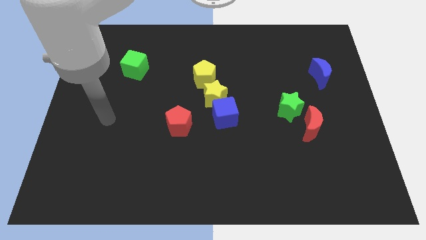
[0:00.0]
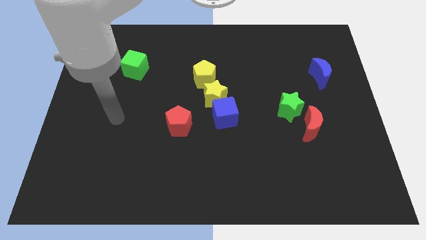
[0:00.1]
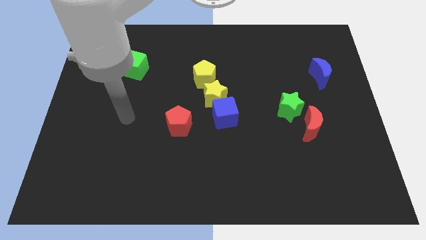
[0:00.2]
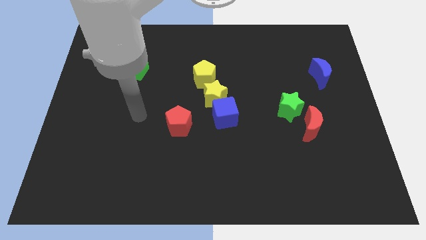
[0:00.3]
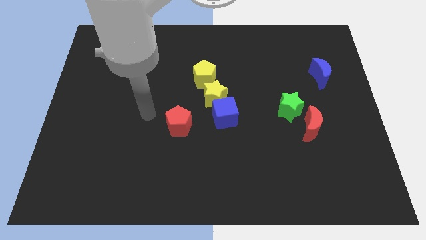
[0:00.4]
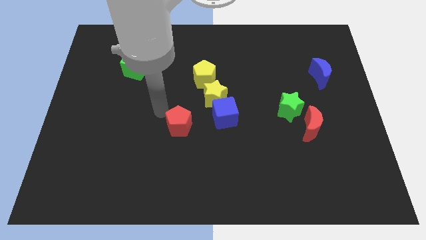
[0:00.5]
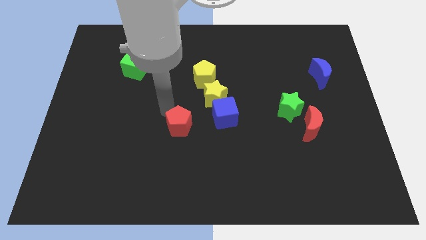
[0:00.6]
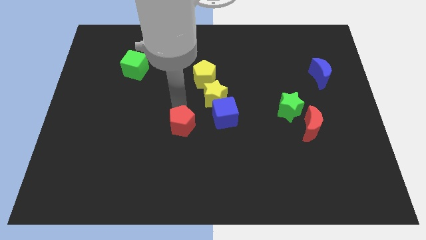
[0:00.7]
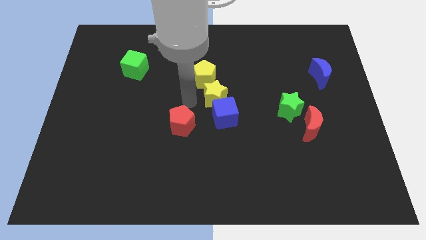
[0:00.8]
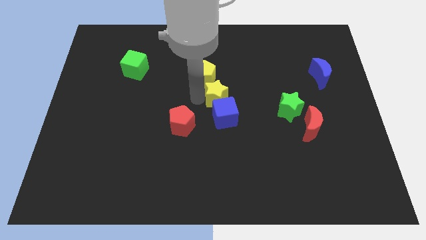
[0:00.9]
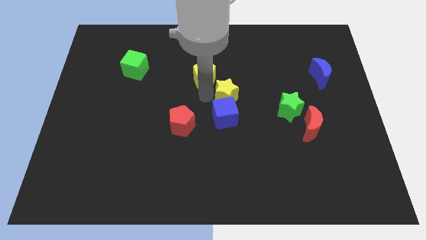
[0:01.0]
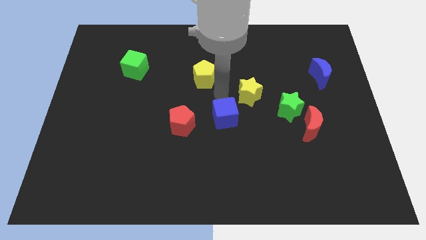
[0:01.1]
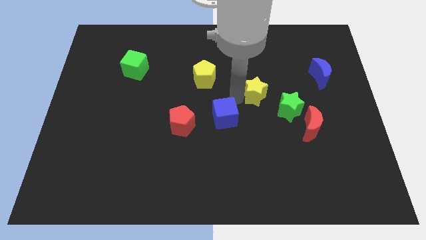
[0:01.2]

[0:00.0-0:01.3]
pull the blue cube apart from the yellow star

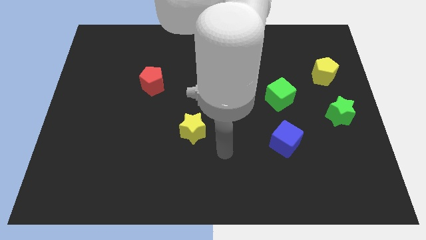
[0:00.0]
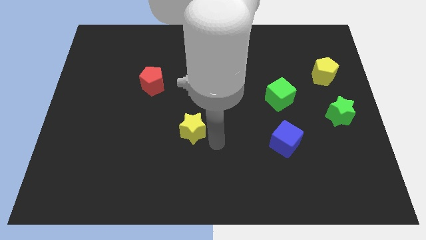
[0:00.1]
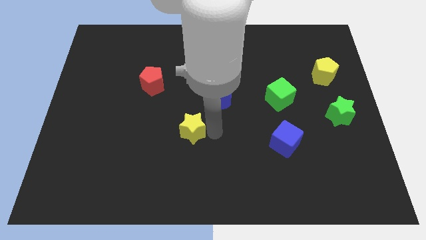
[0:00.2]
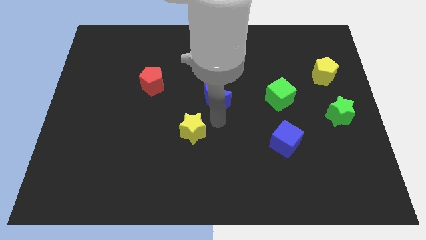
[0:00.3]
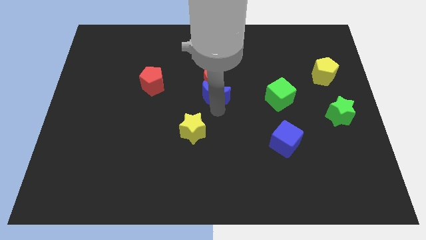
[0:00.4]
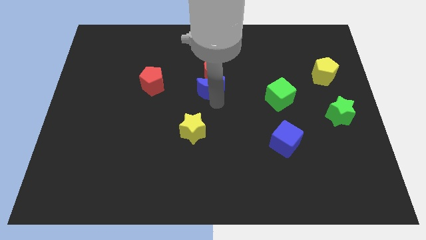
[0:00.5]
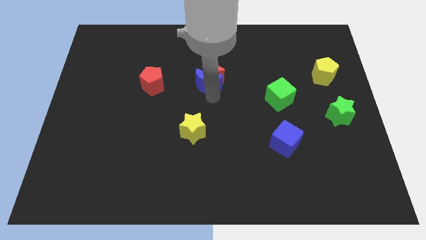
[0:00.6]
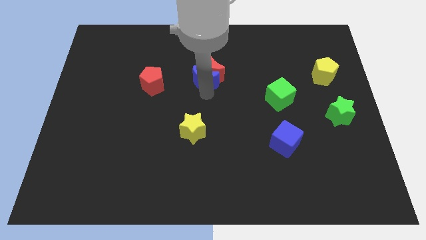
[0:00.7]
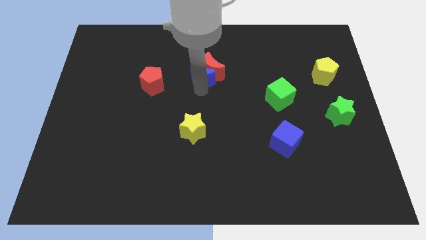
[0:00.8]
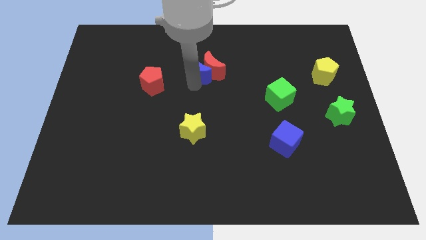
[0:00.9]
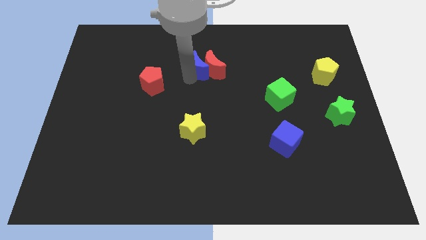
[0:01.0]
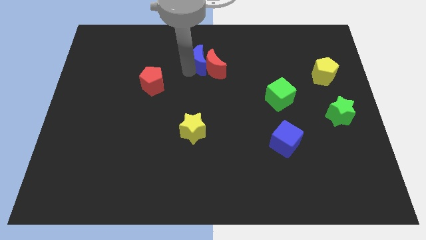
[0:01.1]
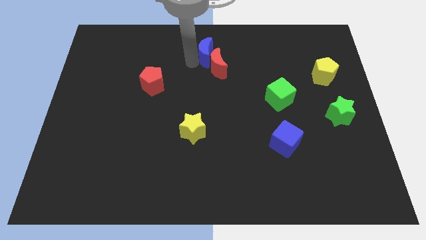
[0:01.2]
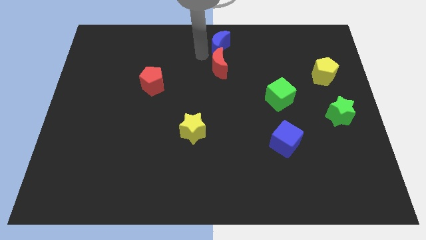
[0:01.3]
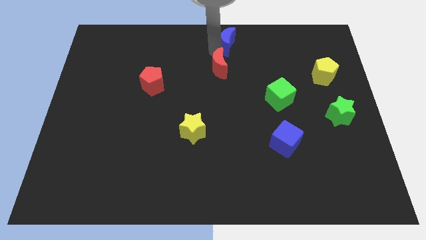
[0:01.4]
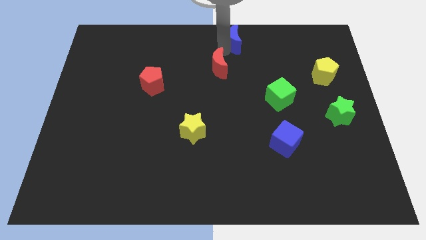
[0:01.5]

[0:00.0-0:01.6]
separate the red moon from the blue moon

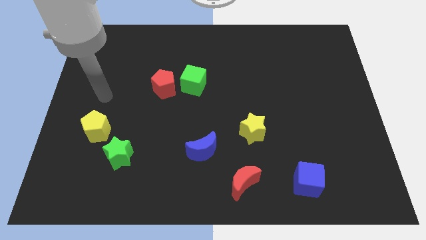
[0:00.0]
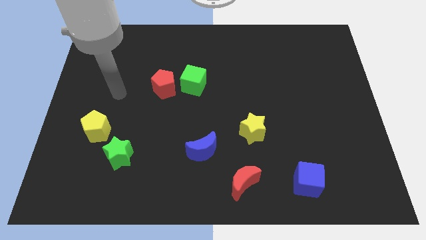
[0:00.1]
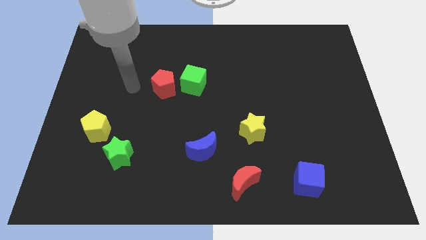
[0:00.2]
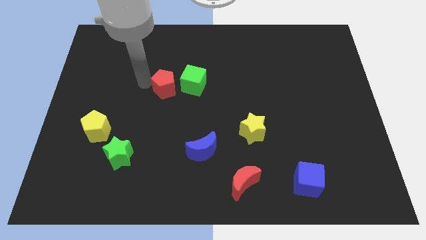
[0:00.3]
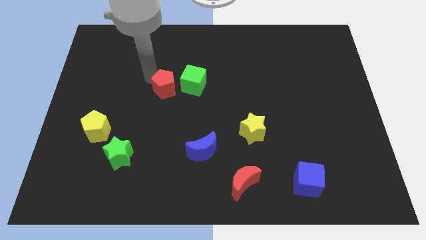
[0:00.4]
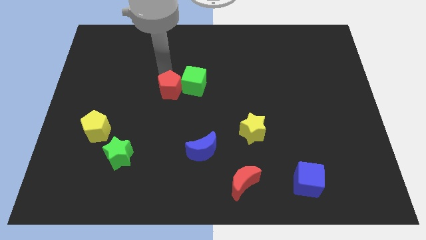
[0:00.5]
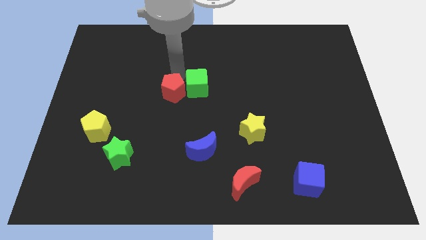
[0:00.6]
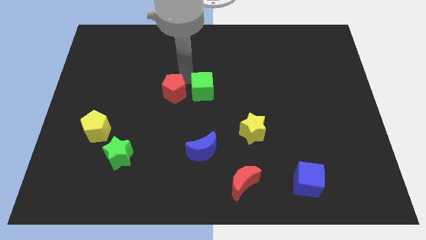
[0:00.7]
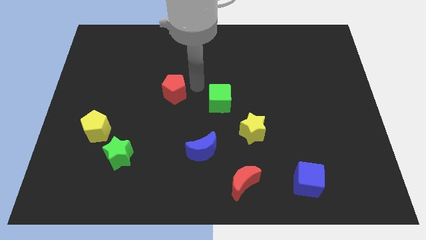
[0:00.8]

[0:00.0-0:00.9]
move the red pentagon away from the green cube

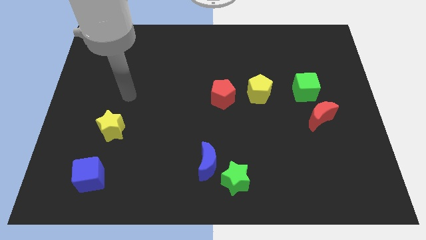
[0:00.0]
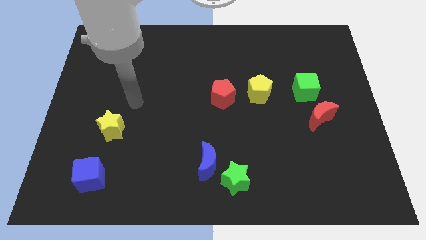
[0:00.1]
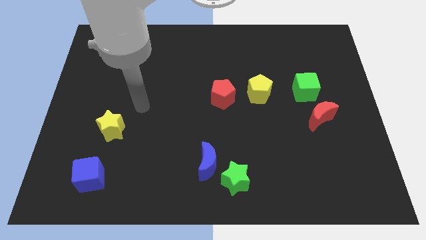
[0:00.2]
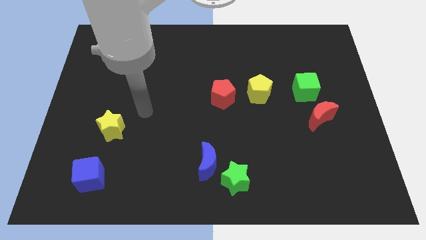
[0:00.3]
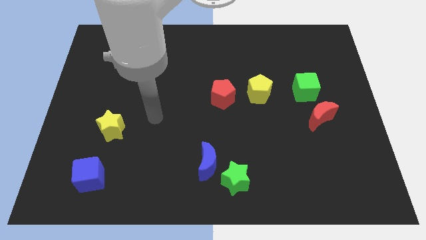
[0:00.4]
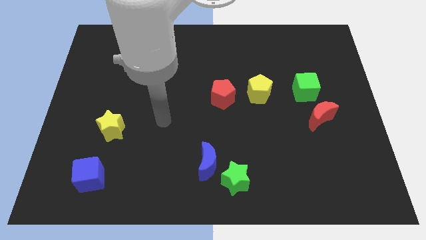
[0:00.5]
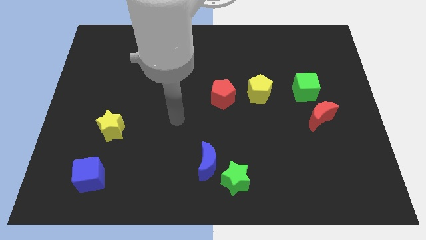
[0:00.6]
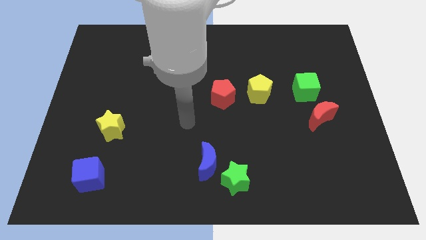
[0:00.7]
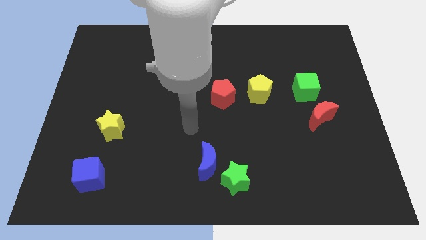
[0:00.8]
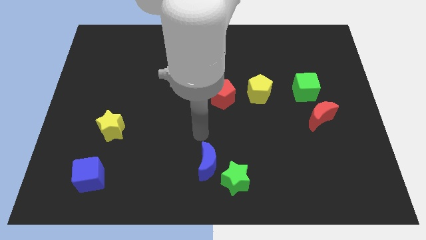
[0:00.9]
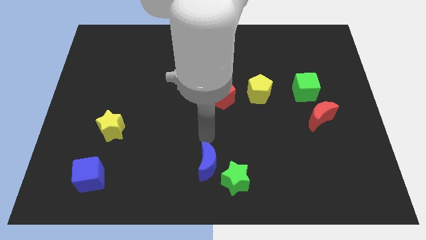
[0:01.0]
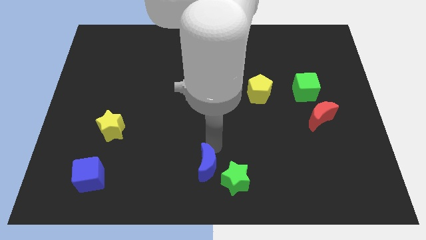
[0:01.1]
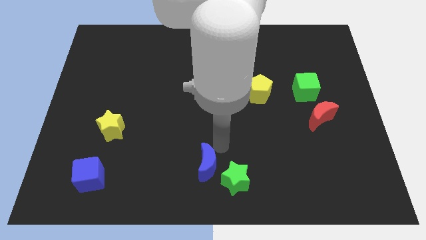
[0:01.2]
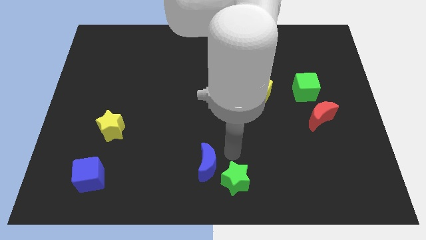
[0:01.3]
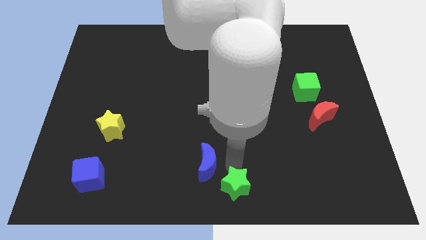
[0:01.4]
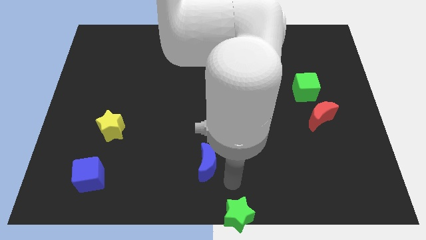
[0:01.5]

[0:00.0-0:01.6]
pull the blue moon apart from the green star

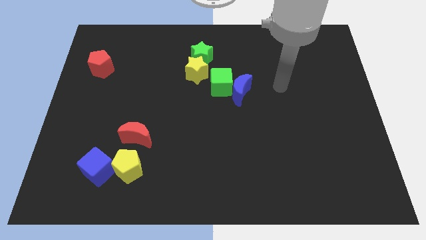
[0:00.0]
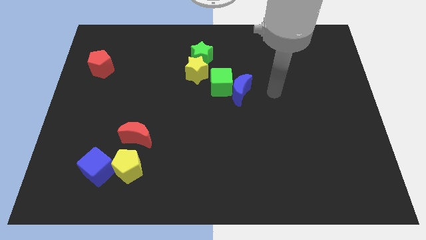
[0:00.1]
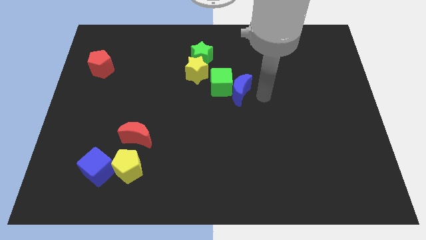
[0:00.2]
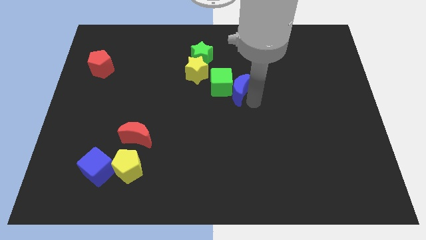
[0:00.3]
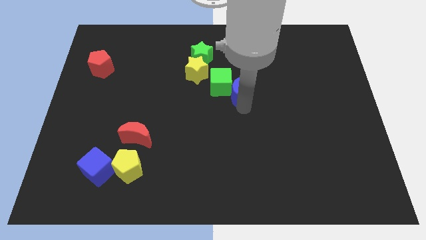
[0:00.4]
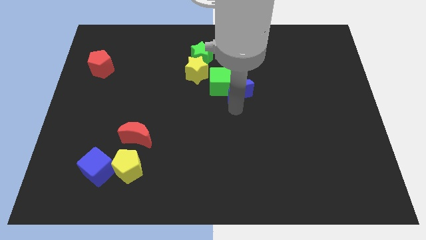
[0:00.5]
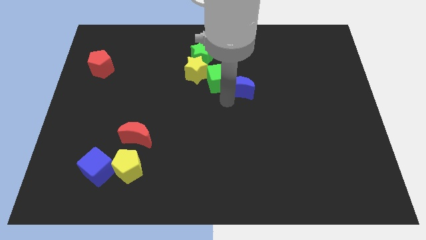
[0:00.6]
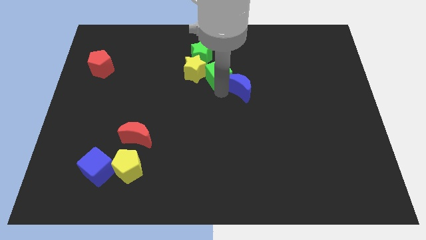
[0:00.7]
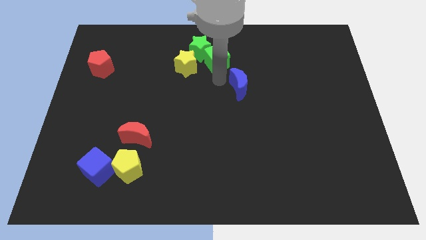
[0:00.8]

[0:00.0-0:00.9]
move the blue moon away from the green cube

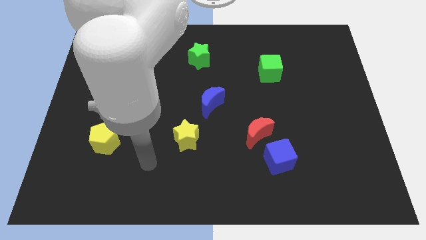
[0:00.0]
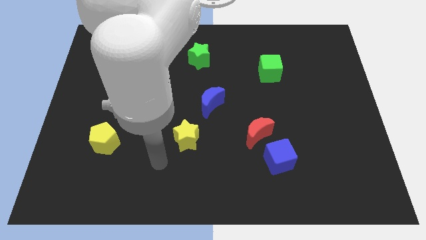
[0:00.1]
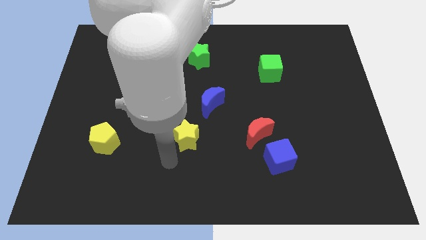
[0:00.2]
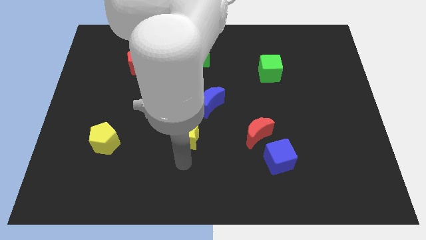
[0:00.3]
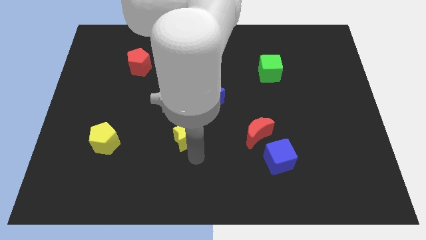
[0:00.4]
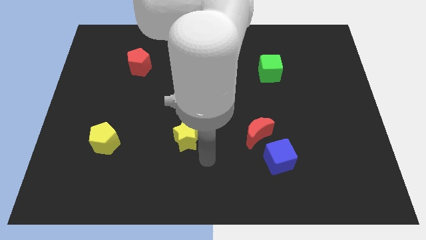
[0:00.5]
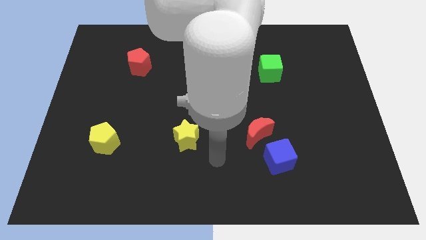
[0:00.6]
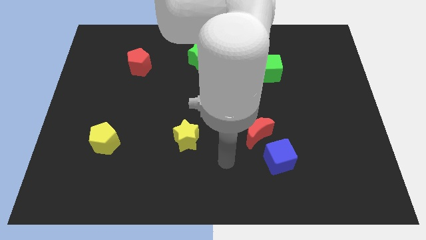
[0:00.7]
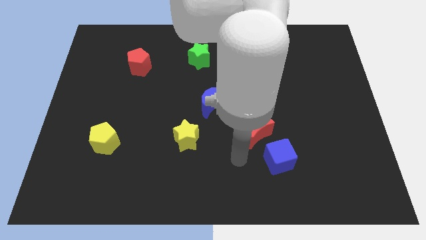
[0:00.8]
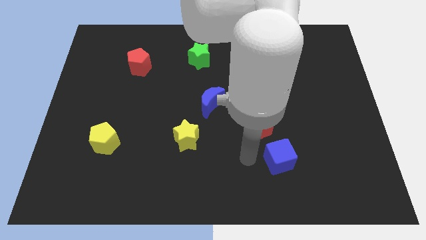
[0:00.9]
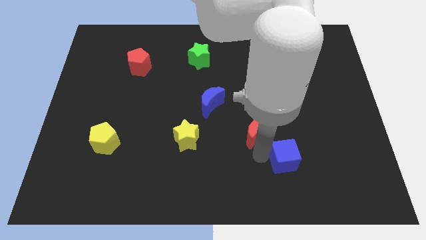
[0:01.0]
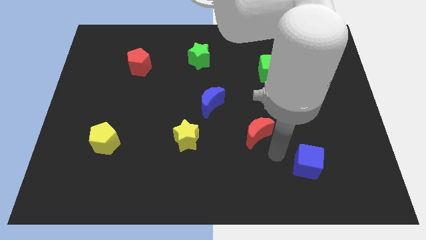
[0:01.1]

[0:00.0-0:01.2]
pull the red moon apart from the blue cube

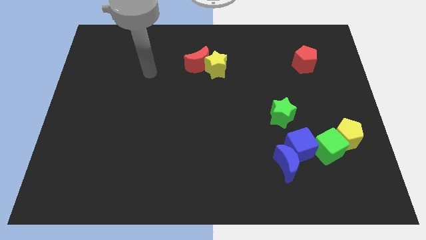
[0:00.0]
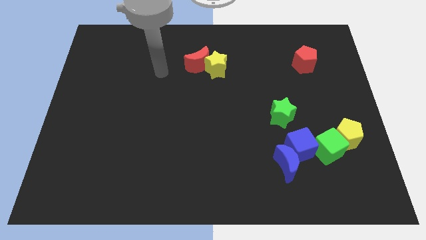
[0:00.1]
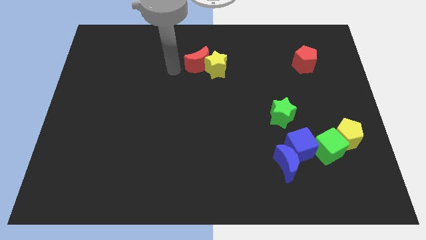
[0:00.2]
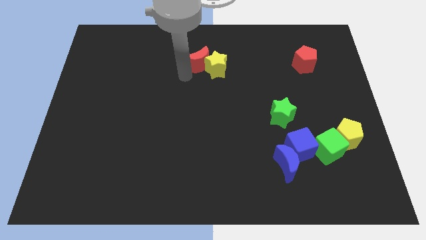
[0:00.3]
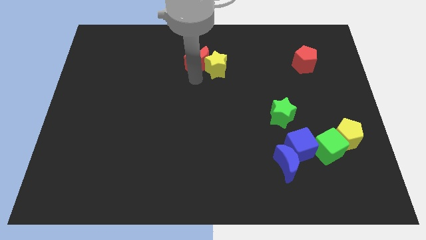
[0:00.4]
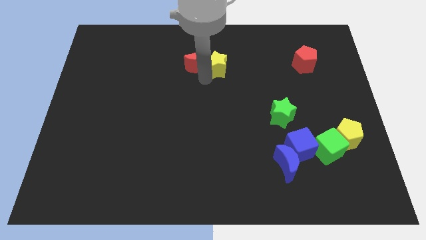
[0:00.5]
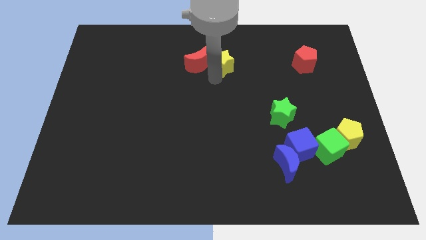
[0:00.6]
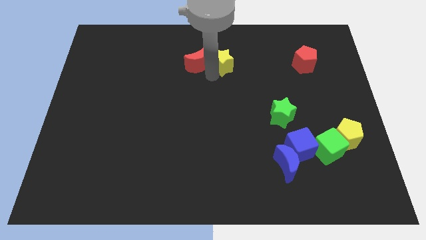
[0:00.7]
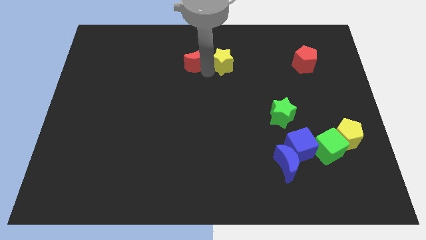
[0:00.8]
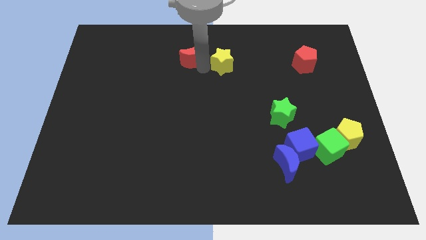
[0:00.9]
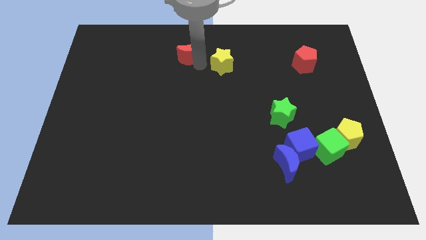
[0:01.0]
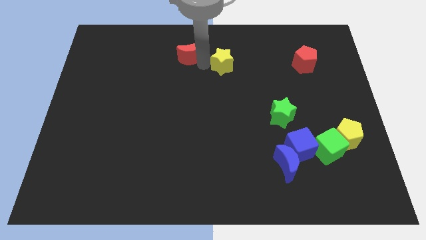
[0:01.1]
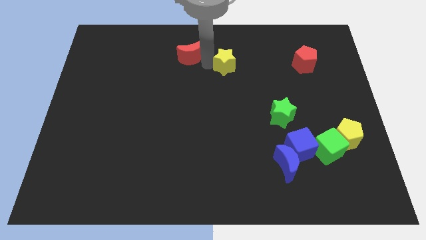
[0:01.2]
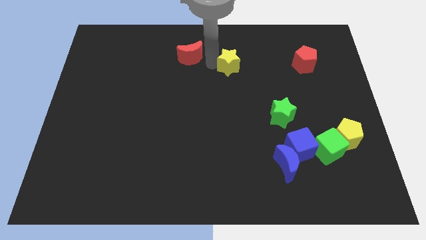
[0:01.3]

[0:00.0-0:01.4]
move the red moon away from the yellow star

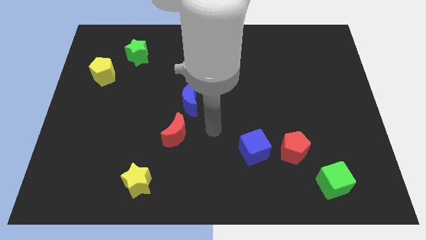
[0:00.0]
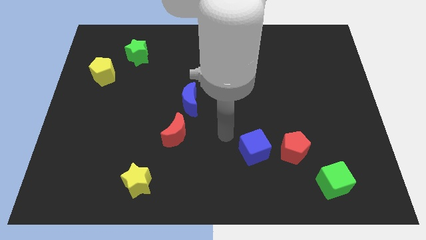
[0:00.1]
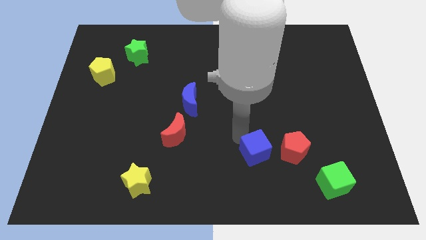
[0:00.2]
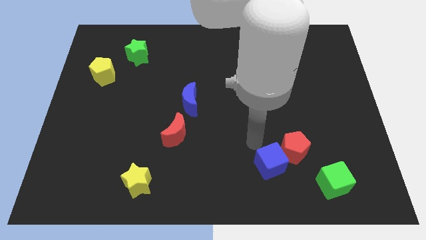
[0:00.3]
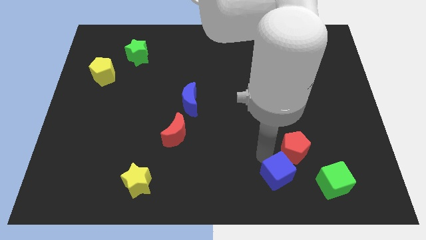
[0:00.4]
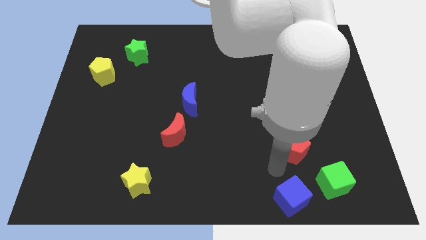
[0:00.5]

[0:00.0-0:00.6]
move the red pentagon away from the blue cube
